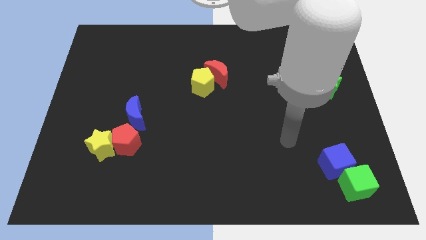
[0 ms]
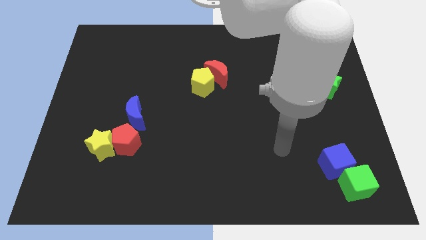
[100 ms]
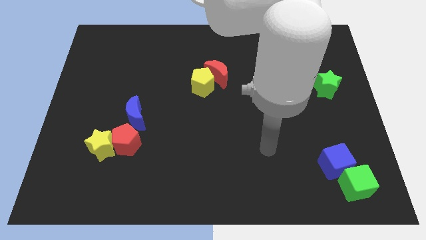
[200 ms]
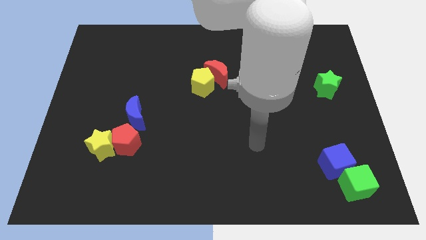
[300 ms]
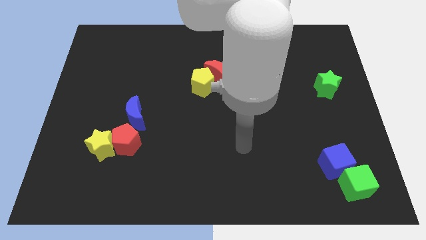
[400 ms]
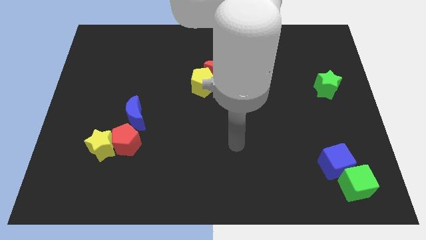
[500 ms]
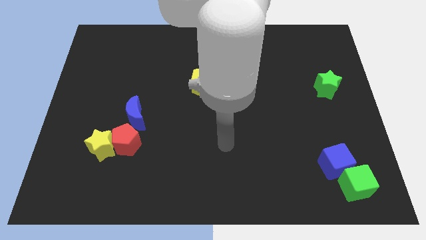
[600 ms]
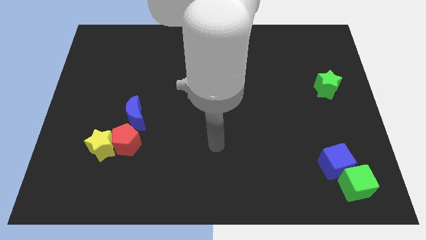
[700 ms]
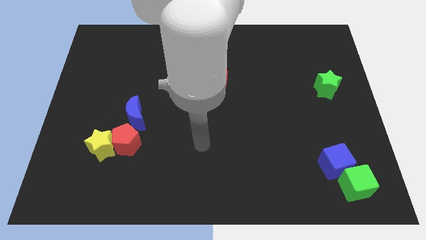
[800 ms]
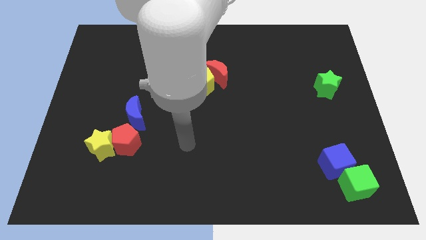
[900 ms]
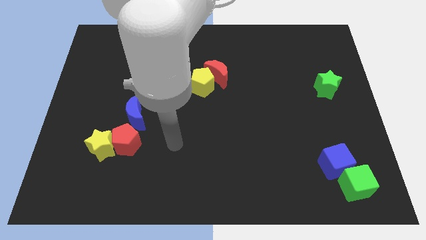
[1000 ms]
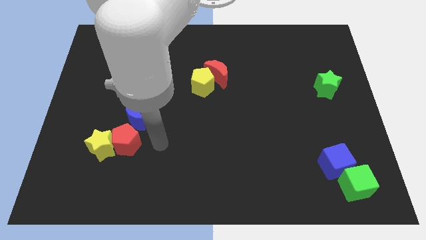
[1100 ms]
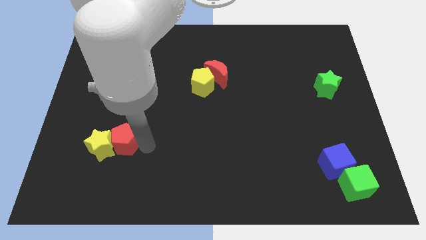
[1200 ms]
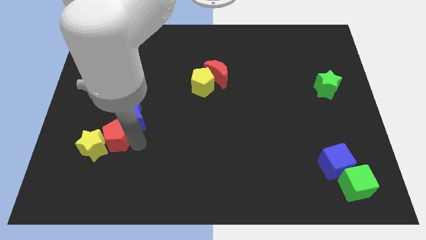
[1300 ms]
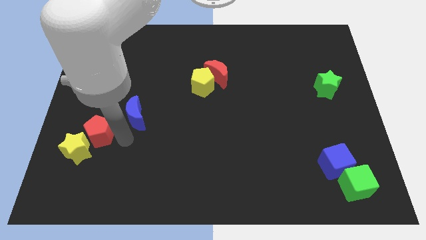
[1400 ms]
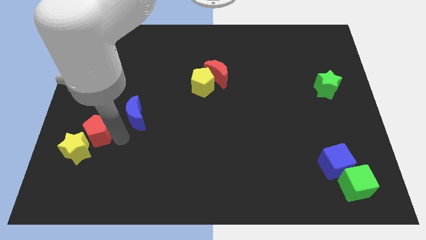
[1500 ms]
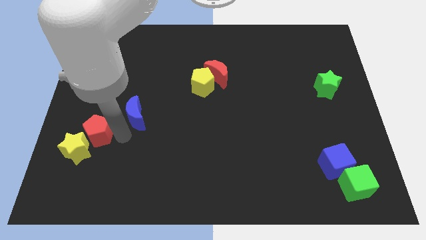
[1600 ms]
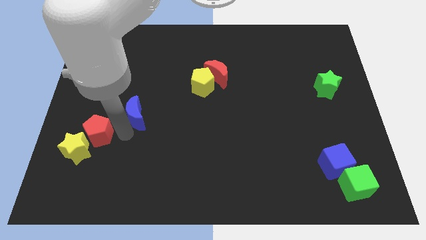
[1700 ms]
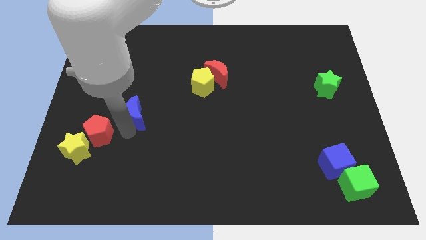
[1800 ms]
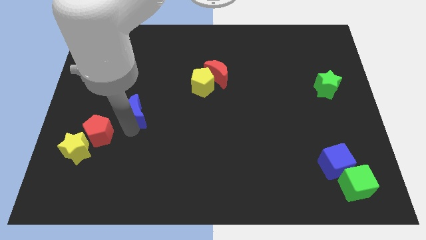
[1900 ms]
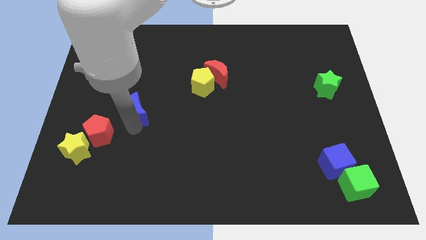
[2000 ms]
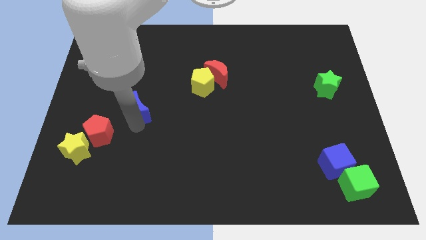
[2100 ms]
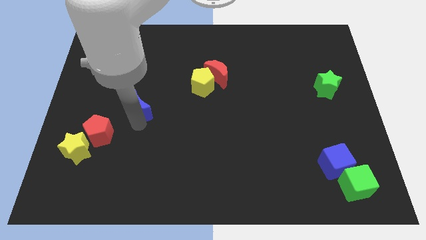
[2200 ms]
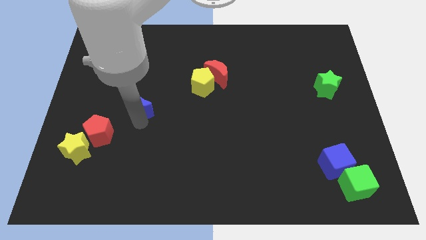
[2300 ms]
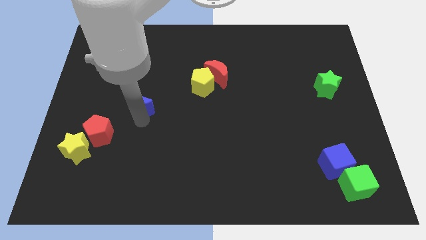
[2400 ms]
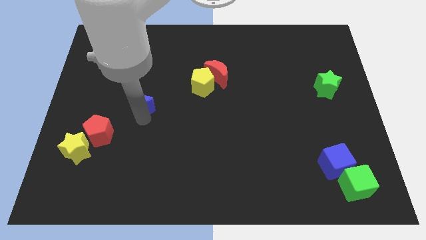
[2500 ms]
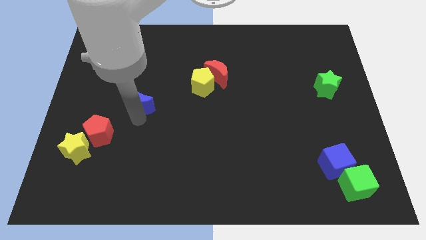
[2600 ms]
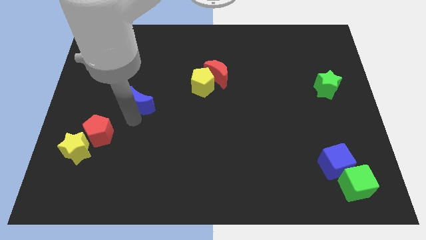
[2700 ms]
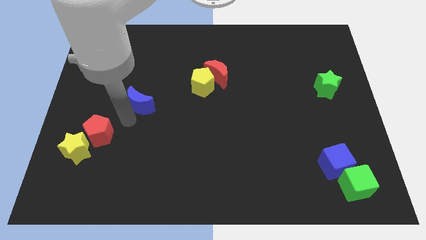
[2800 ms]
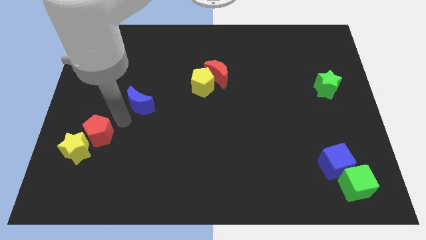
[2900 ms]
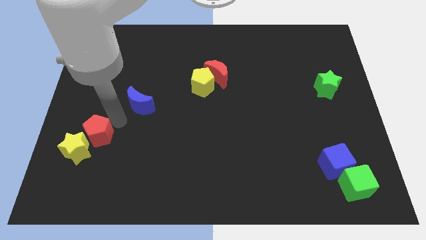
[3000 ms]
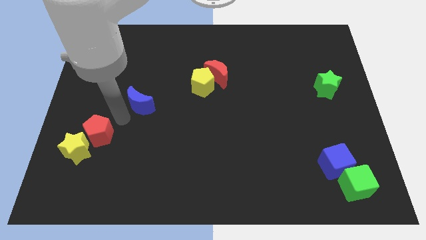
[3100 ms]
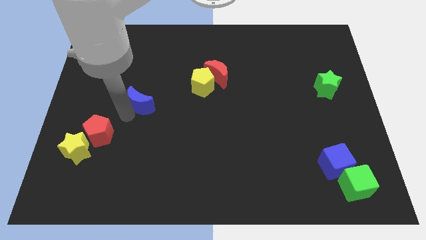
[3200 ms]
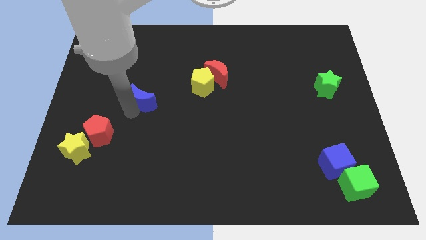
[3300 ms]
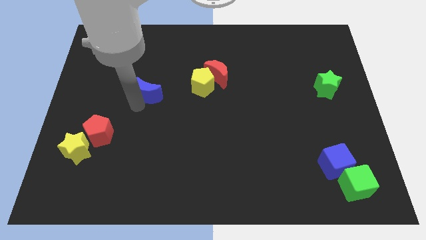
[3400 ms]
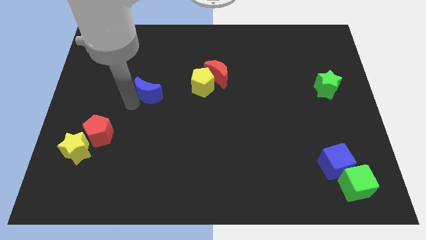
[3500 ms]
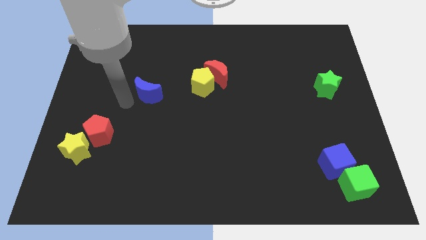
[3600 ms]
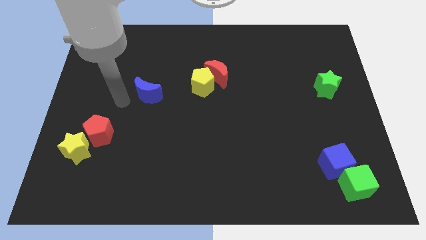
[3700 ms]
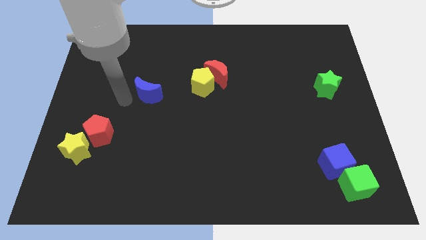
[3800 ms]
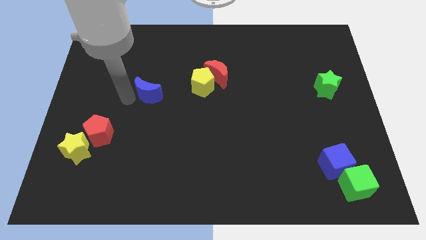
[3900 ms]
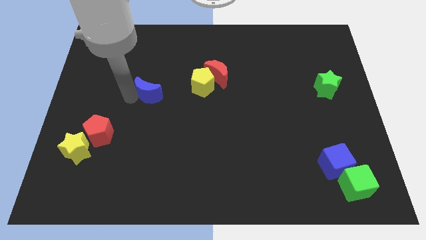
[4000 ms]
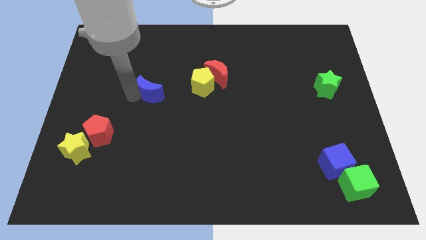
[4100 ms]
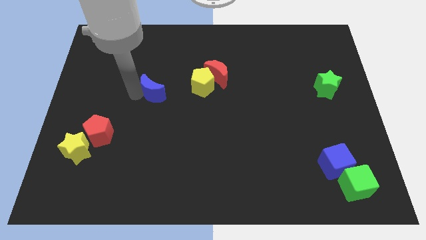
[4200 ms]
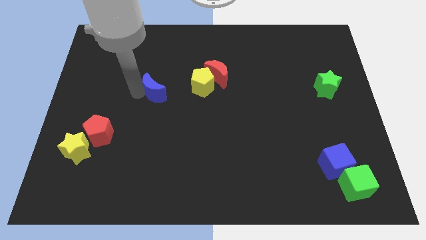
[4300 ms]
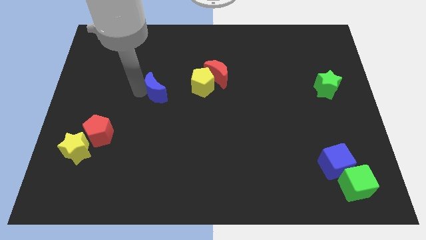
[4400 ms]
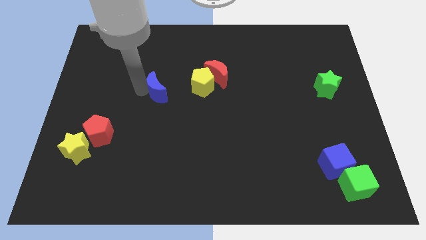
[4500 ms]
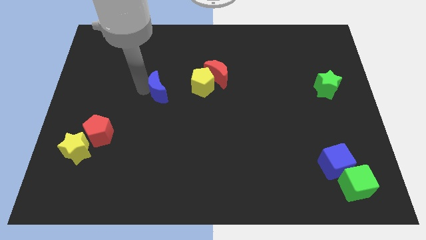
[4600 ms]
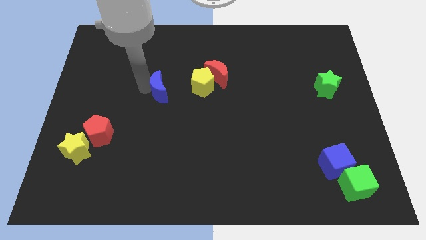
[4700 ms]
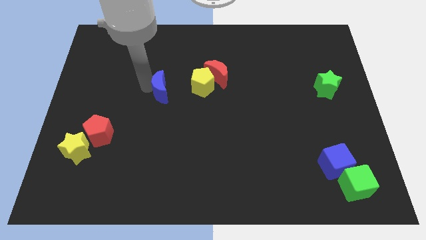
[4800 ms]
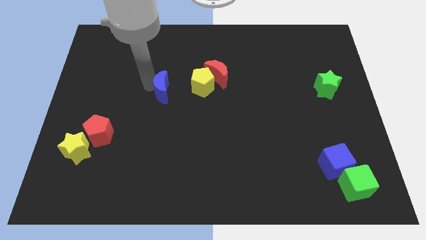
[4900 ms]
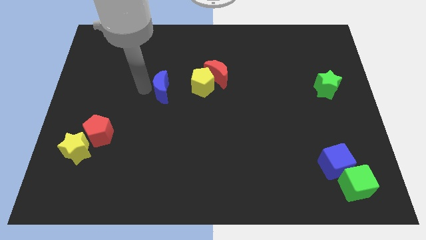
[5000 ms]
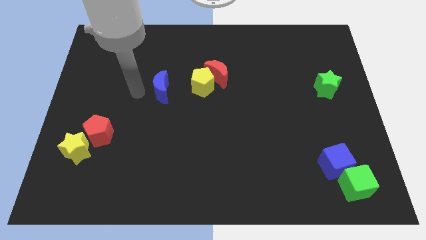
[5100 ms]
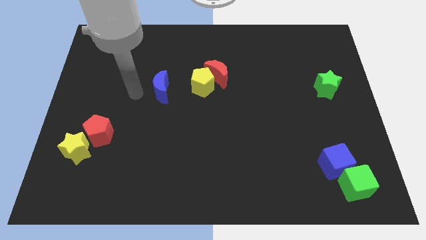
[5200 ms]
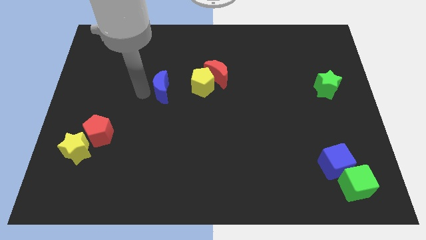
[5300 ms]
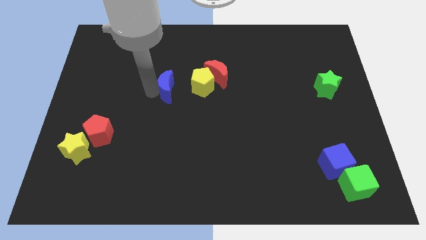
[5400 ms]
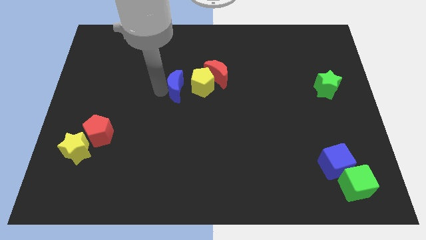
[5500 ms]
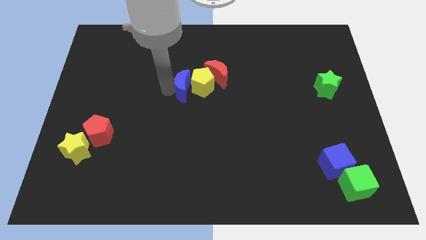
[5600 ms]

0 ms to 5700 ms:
put the blue moon to the yellow pentagon

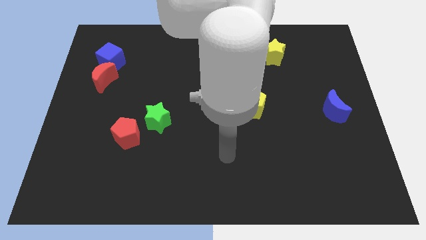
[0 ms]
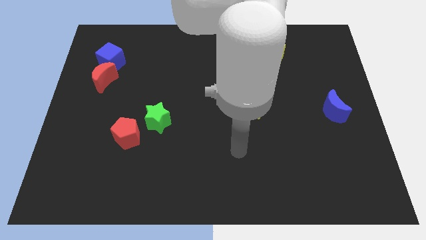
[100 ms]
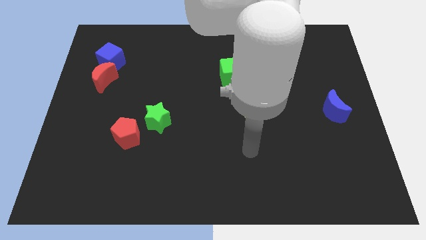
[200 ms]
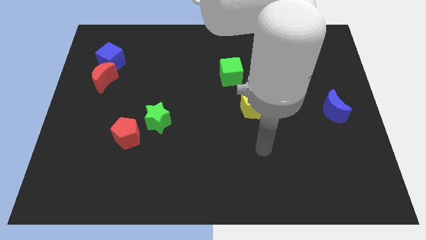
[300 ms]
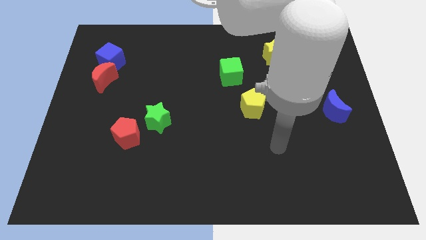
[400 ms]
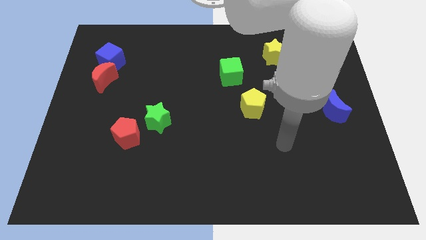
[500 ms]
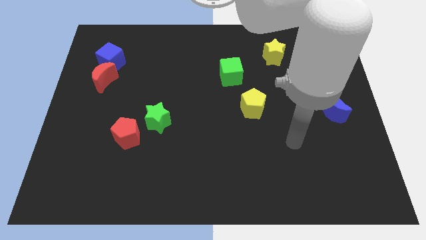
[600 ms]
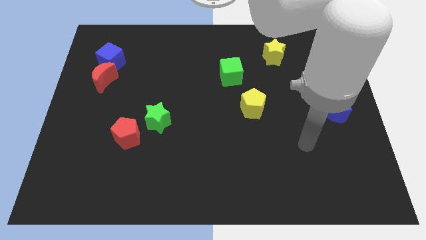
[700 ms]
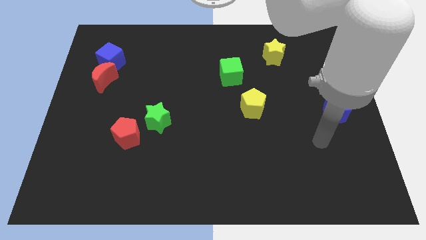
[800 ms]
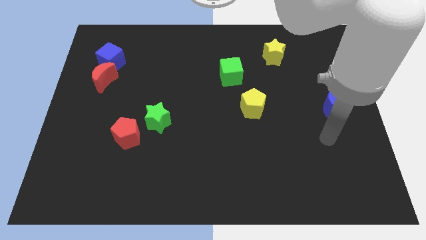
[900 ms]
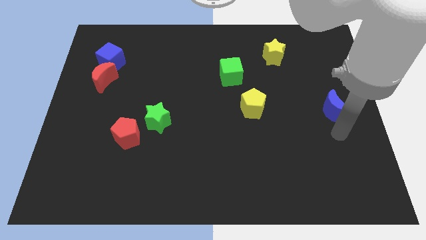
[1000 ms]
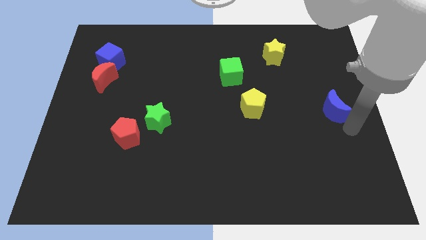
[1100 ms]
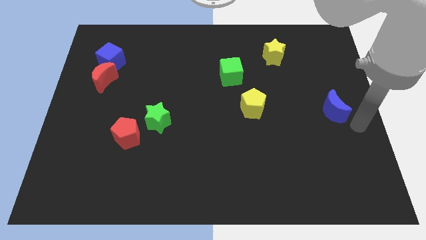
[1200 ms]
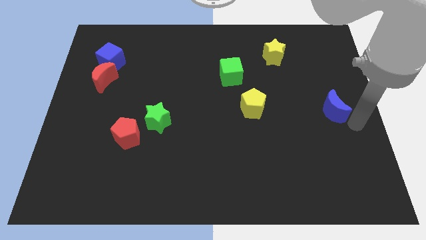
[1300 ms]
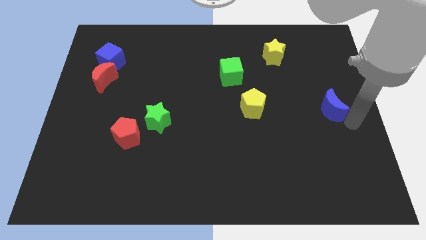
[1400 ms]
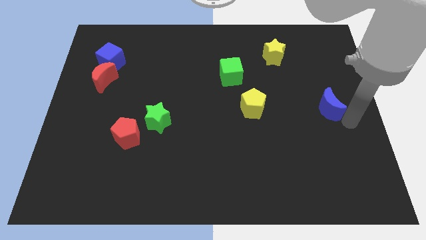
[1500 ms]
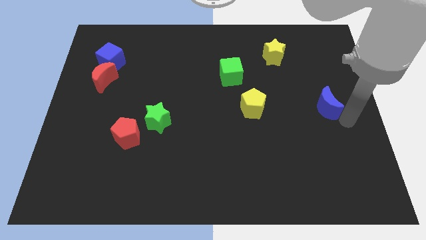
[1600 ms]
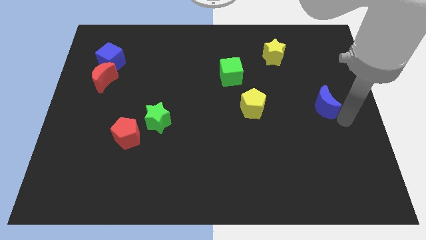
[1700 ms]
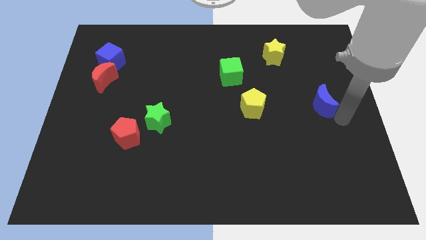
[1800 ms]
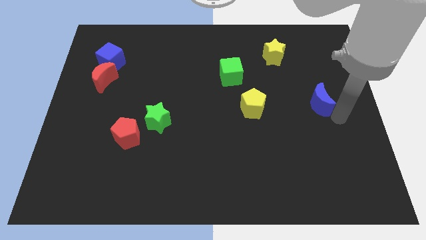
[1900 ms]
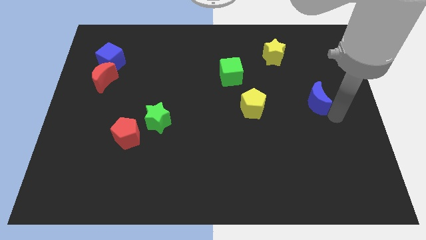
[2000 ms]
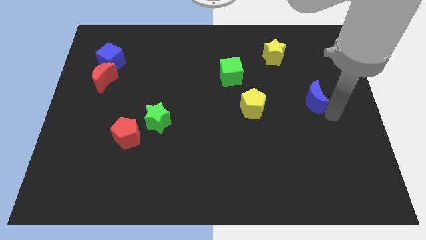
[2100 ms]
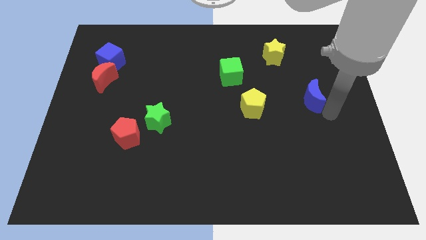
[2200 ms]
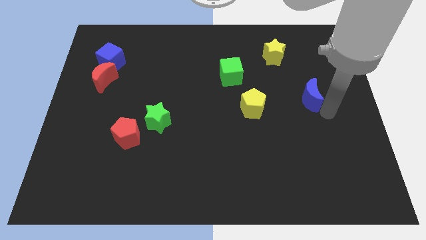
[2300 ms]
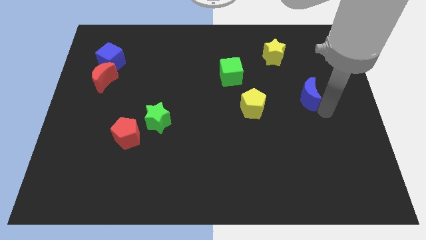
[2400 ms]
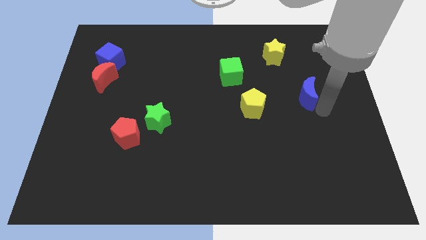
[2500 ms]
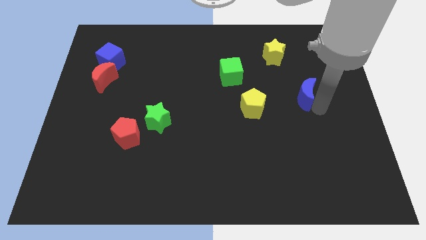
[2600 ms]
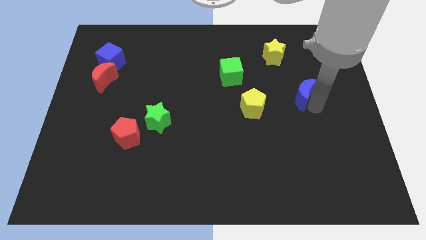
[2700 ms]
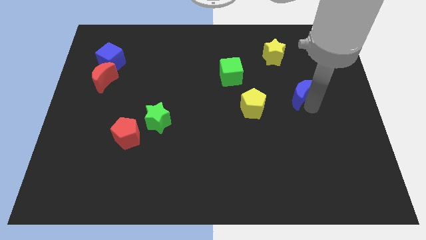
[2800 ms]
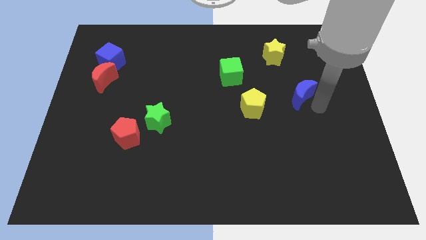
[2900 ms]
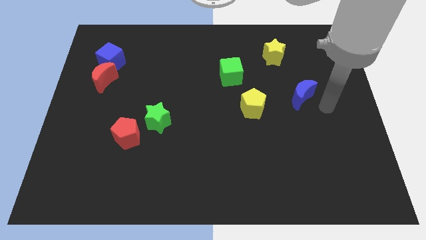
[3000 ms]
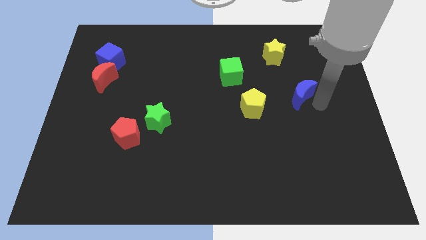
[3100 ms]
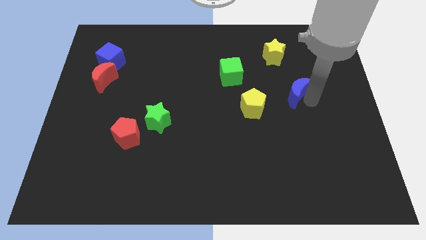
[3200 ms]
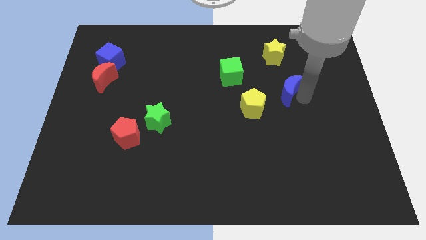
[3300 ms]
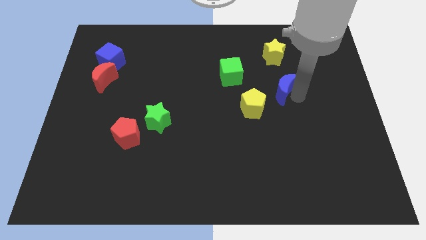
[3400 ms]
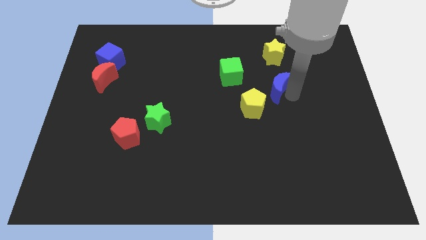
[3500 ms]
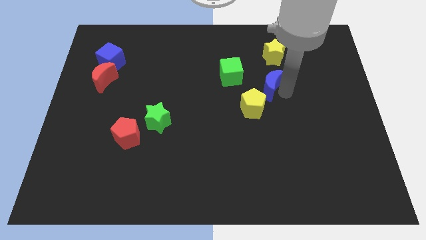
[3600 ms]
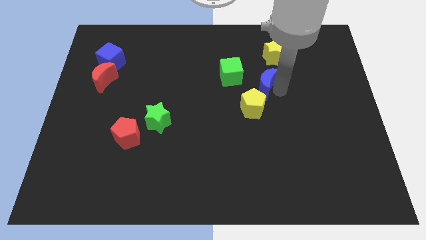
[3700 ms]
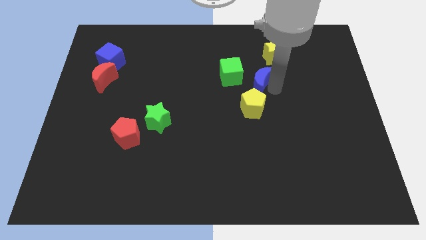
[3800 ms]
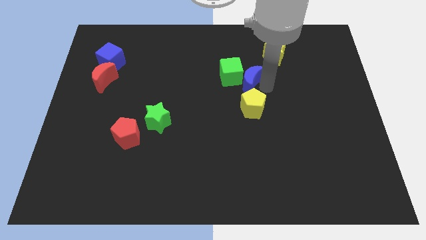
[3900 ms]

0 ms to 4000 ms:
slide the blue moon close to the green cube
